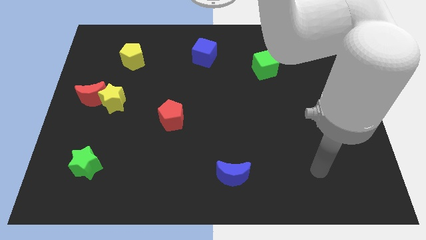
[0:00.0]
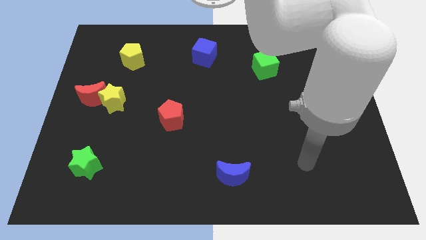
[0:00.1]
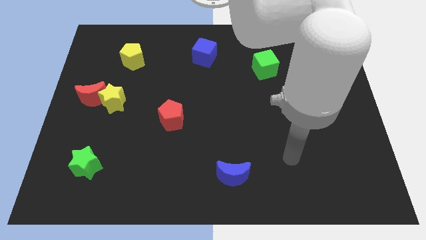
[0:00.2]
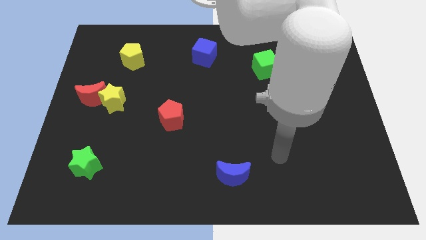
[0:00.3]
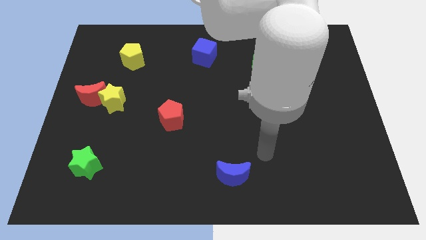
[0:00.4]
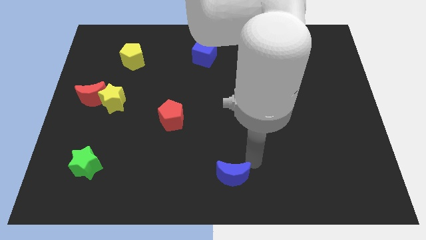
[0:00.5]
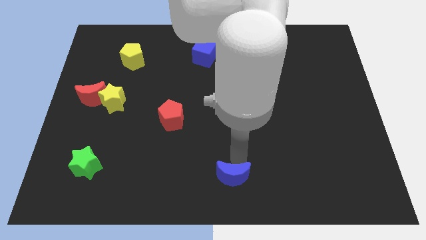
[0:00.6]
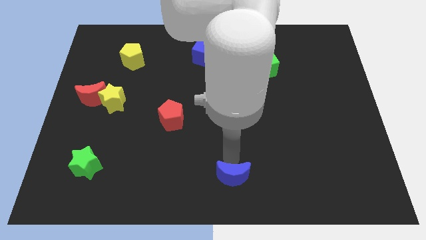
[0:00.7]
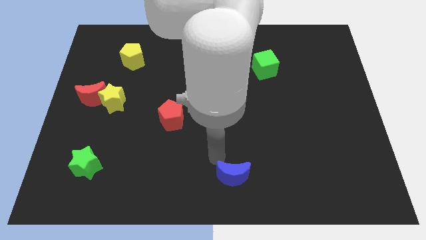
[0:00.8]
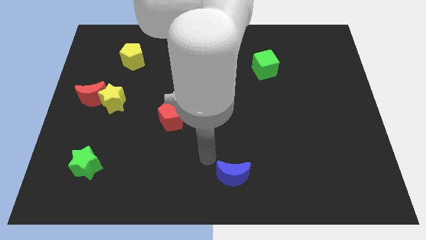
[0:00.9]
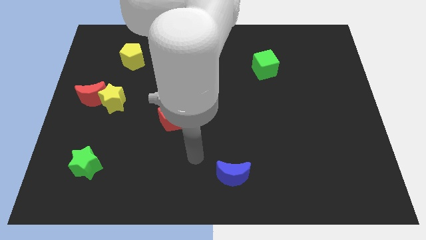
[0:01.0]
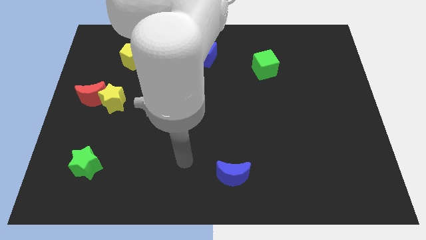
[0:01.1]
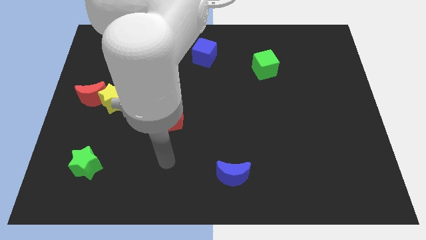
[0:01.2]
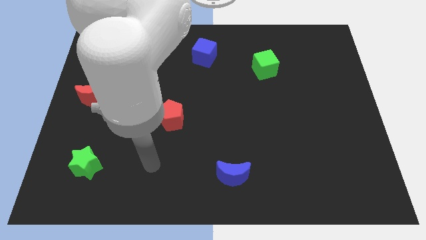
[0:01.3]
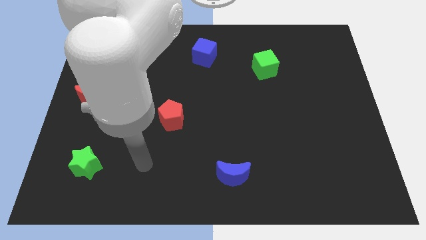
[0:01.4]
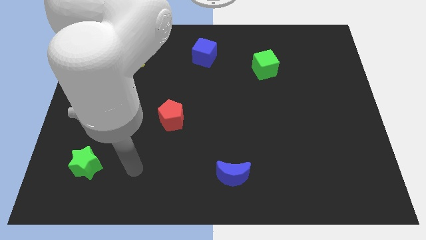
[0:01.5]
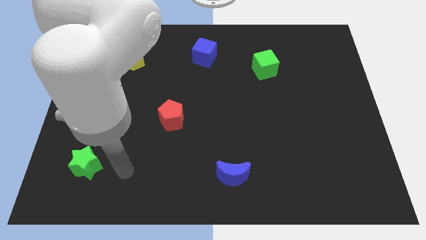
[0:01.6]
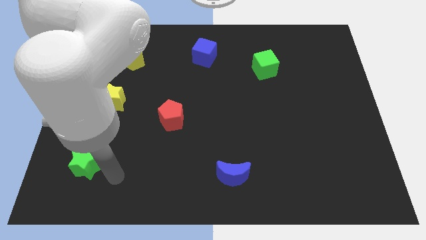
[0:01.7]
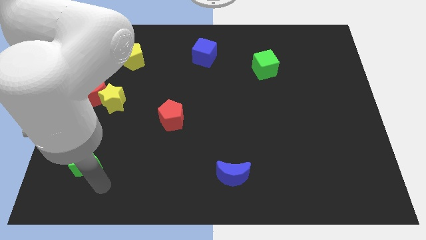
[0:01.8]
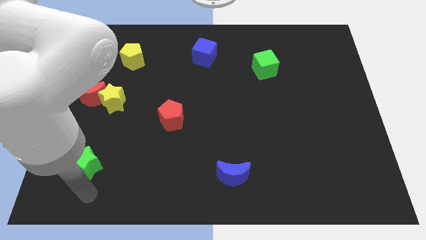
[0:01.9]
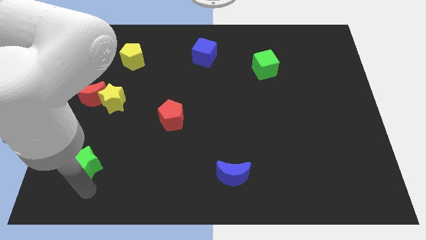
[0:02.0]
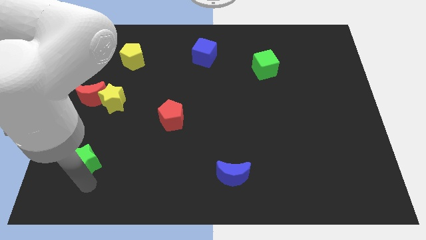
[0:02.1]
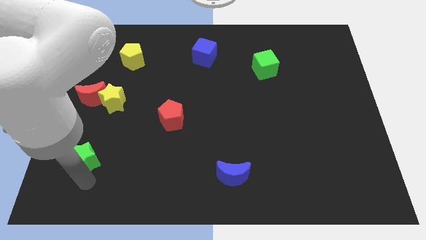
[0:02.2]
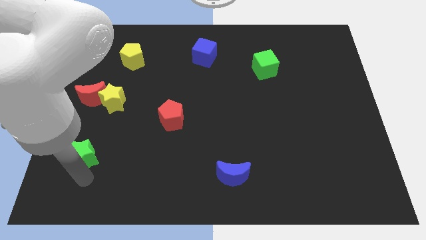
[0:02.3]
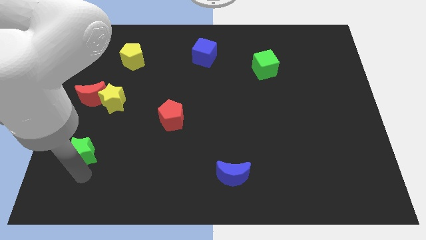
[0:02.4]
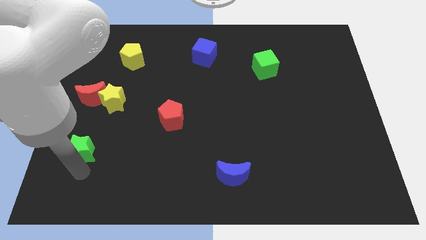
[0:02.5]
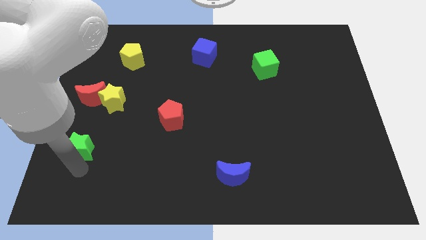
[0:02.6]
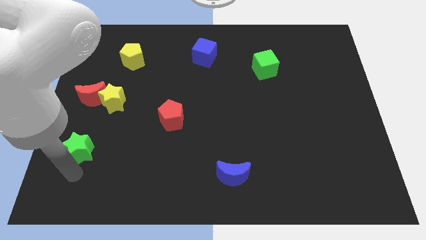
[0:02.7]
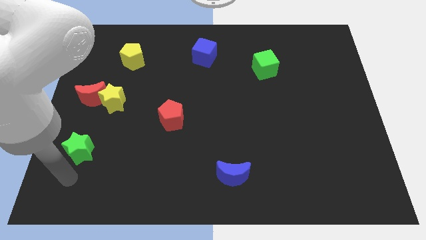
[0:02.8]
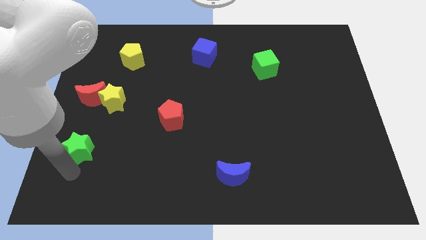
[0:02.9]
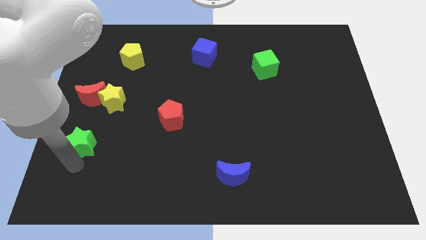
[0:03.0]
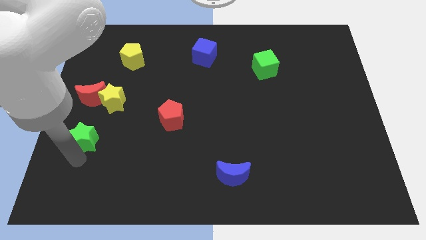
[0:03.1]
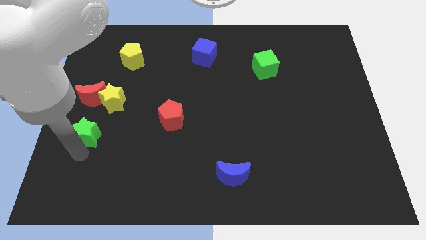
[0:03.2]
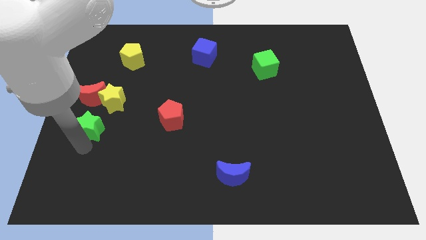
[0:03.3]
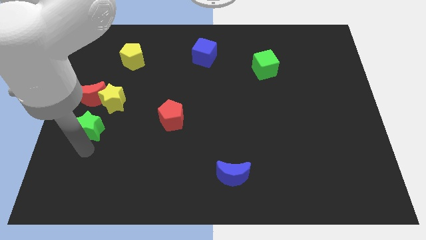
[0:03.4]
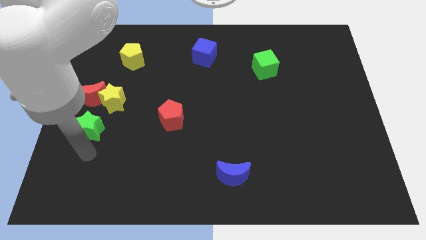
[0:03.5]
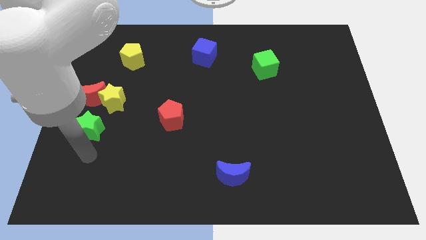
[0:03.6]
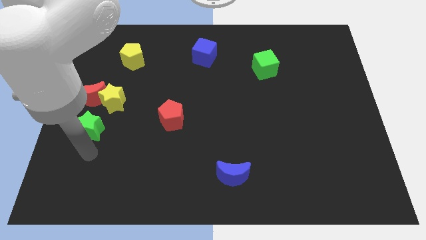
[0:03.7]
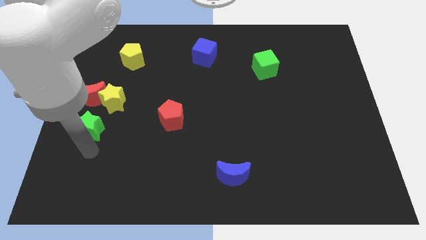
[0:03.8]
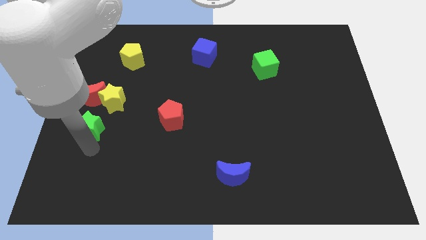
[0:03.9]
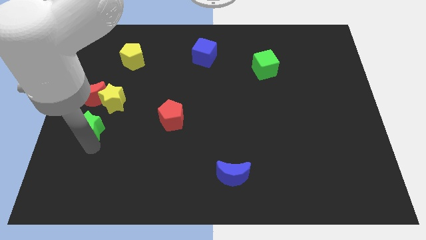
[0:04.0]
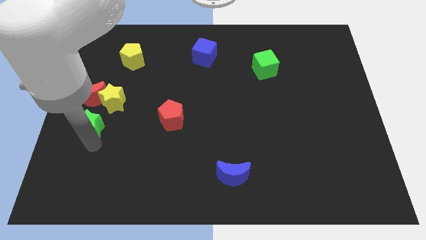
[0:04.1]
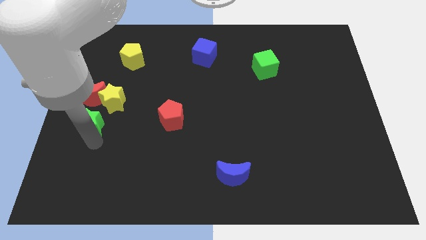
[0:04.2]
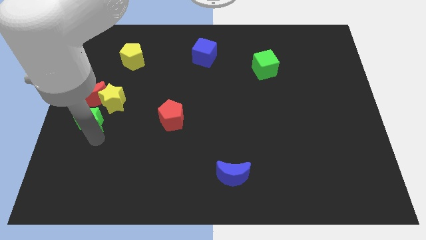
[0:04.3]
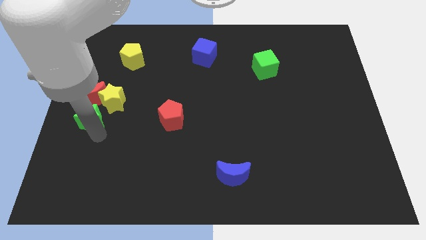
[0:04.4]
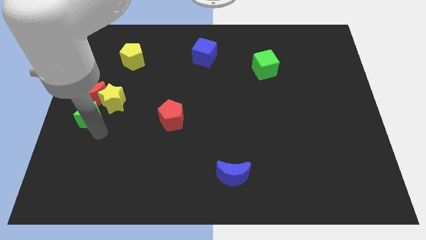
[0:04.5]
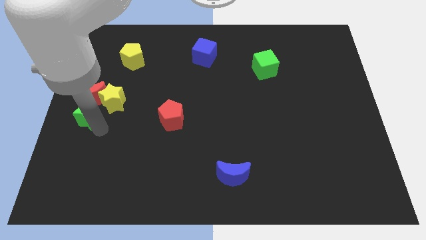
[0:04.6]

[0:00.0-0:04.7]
slide the green star next to the red moon

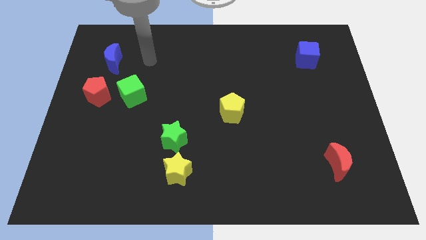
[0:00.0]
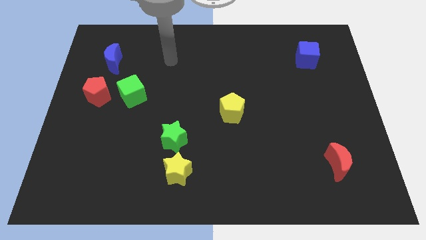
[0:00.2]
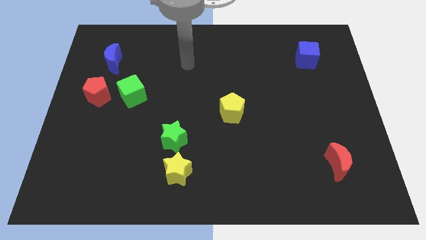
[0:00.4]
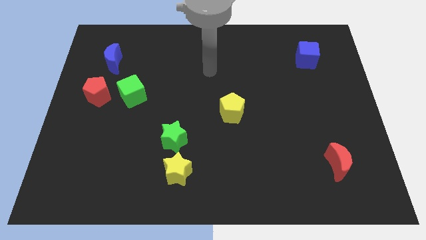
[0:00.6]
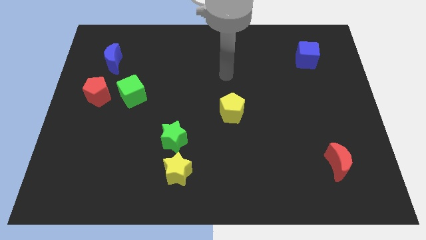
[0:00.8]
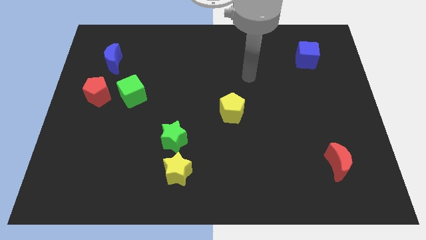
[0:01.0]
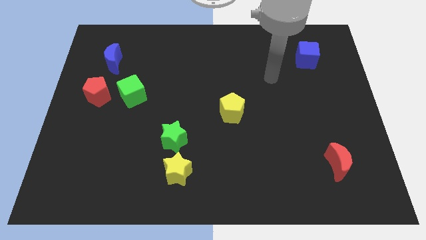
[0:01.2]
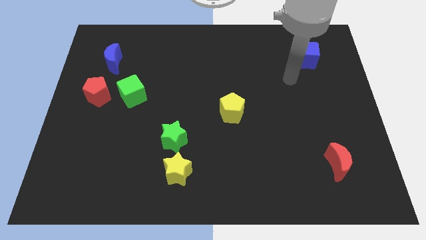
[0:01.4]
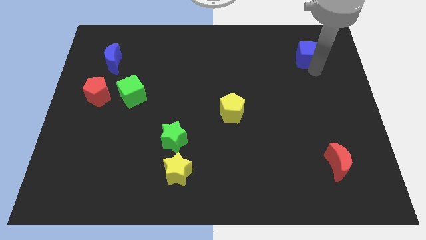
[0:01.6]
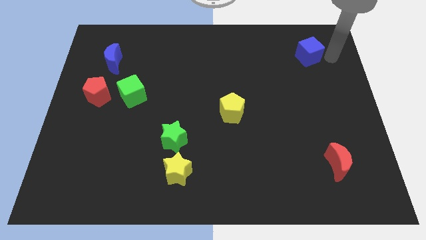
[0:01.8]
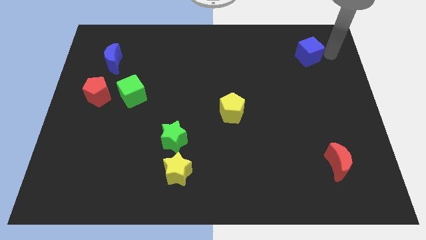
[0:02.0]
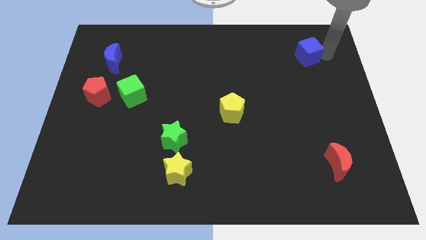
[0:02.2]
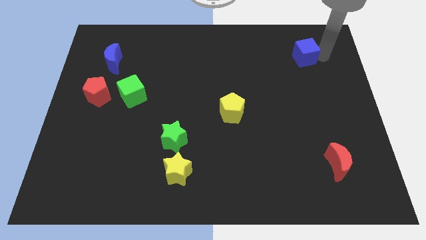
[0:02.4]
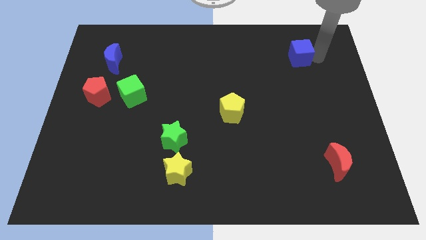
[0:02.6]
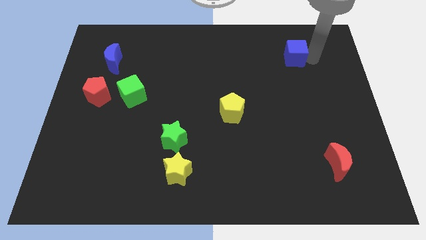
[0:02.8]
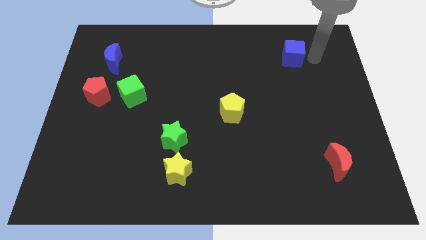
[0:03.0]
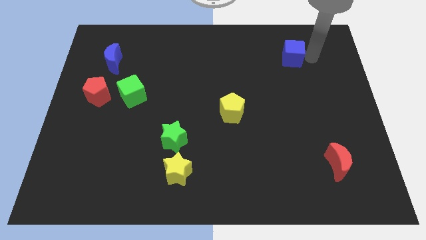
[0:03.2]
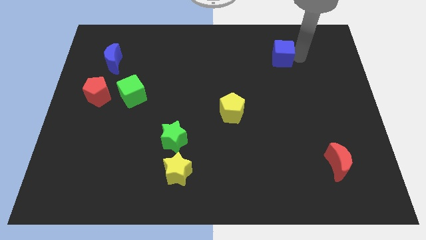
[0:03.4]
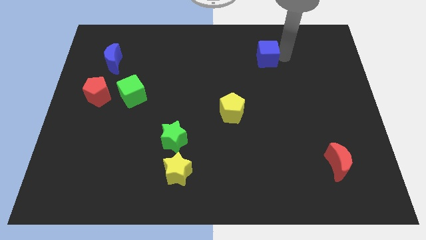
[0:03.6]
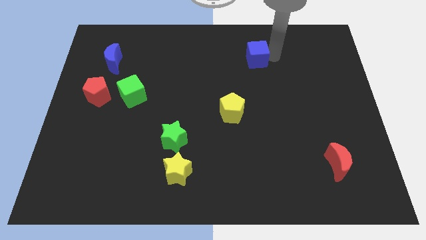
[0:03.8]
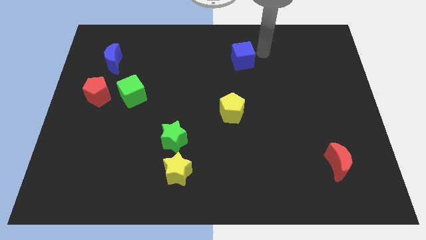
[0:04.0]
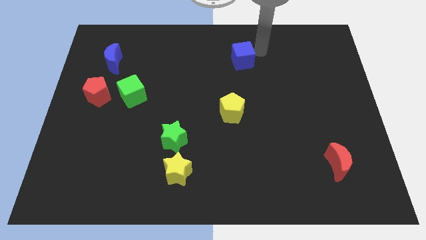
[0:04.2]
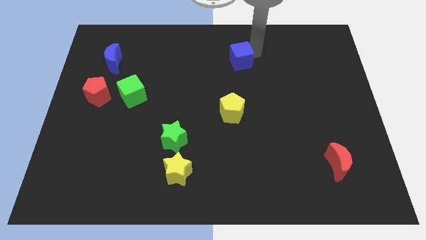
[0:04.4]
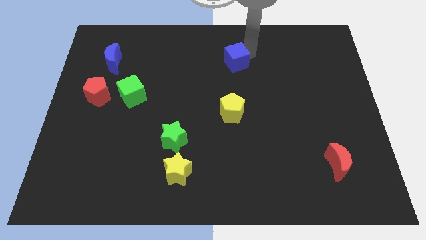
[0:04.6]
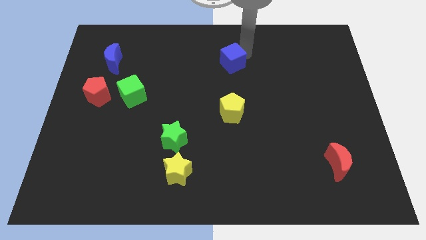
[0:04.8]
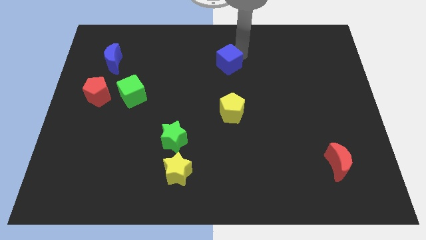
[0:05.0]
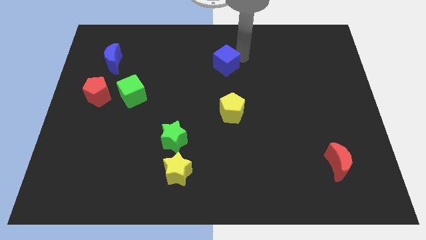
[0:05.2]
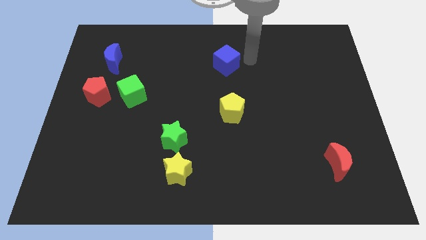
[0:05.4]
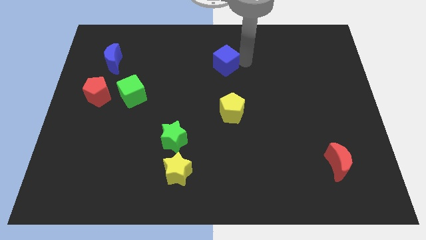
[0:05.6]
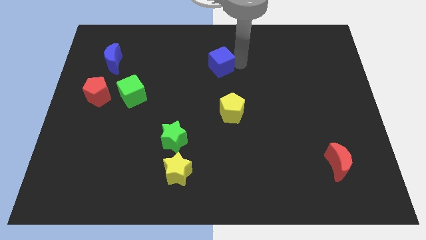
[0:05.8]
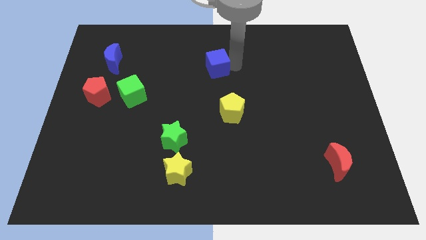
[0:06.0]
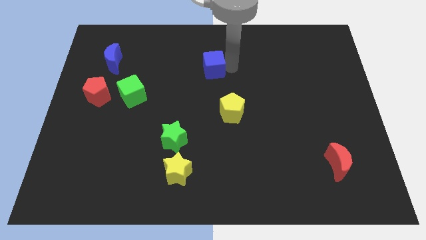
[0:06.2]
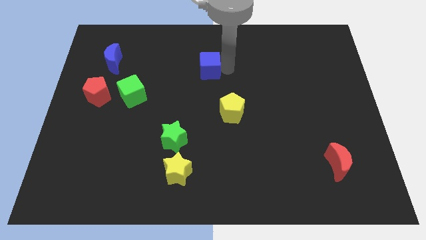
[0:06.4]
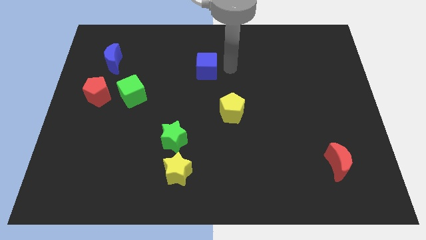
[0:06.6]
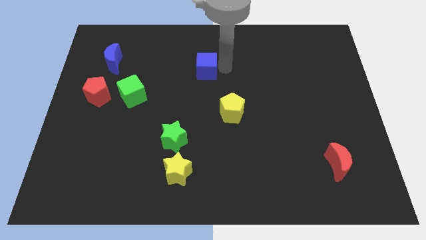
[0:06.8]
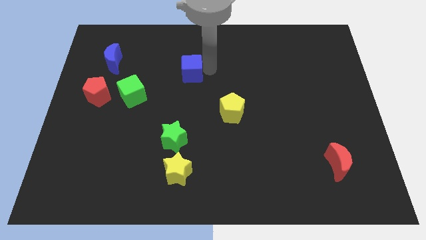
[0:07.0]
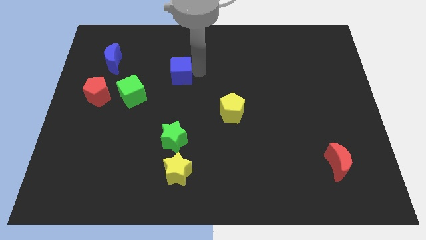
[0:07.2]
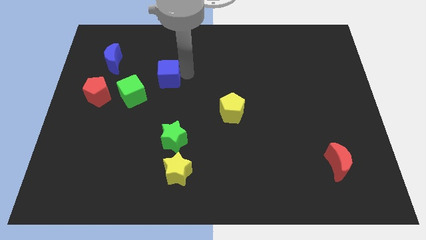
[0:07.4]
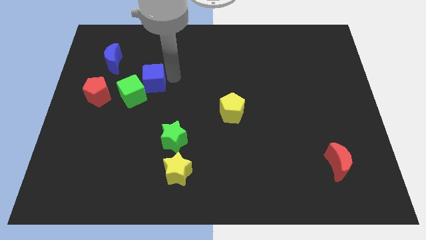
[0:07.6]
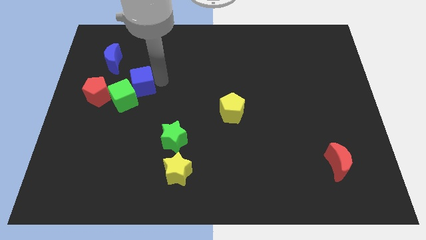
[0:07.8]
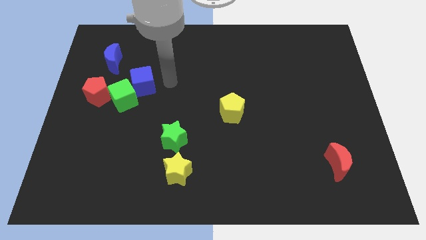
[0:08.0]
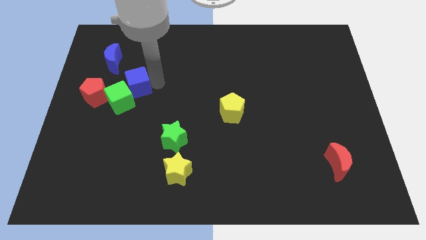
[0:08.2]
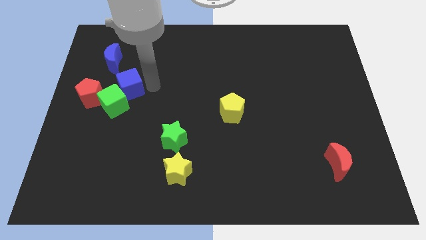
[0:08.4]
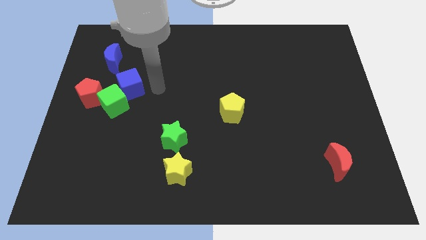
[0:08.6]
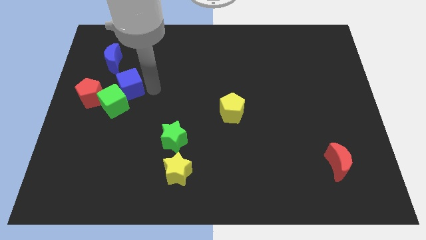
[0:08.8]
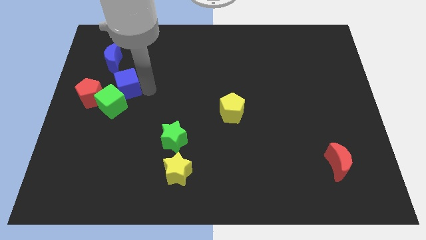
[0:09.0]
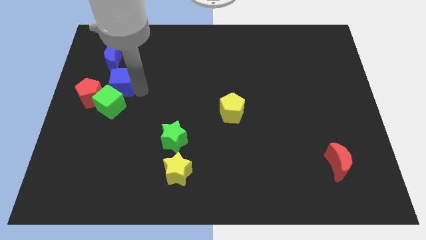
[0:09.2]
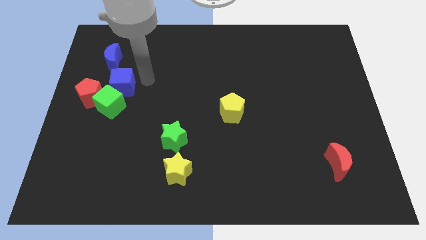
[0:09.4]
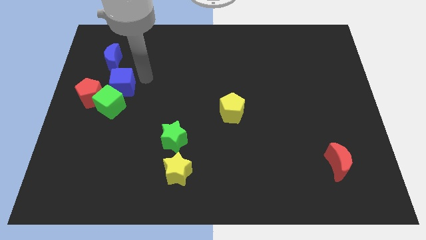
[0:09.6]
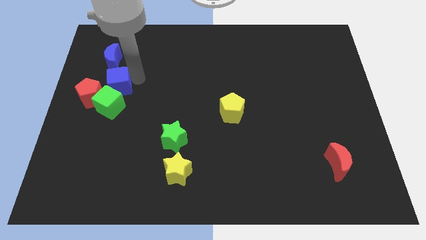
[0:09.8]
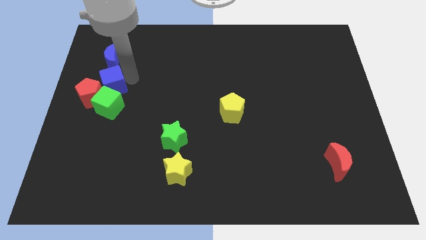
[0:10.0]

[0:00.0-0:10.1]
slide the blue cube close to the red pentagon
